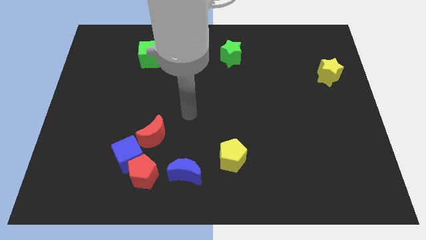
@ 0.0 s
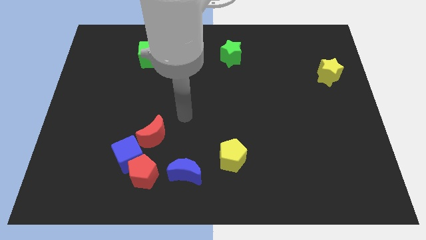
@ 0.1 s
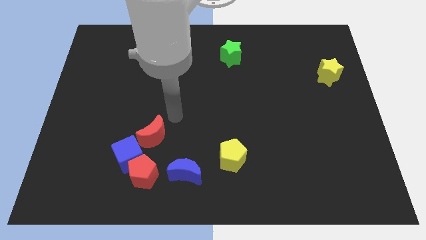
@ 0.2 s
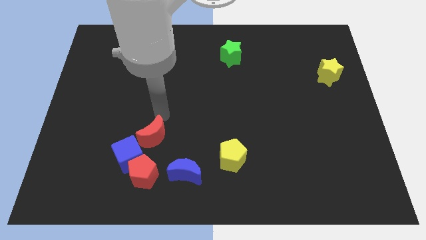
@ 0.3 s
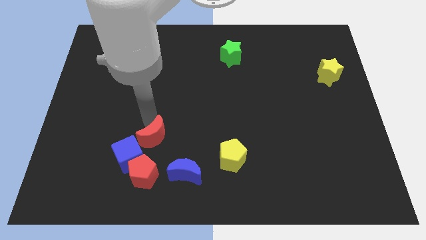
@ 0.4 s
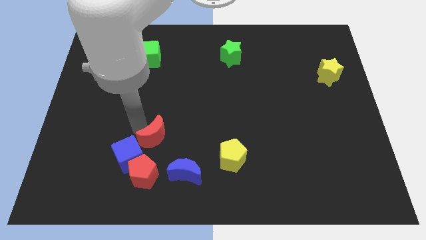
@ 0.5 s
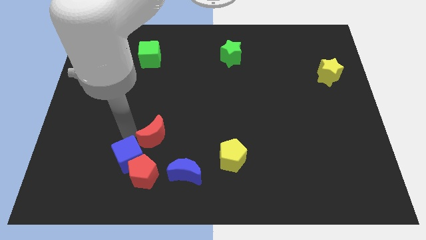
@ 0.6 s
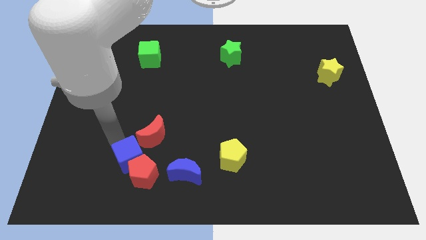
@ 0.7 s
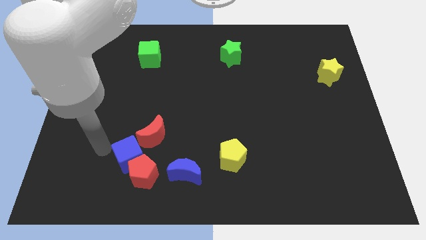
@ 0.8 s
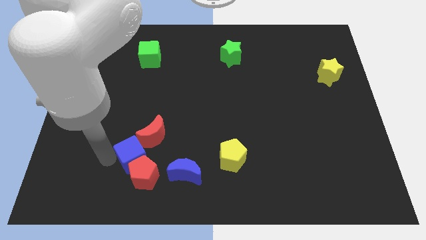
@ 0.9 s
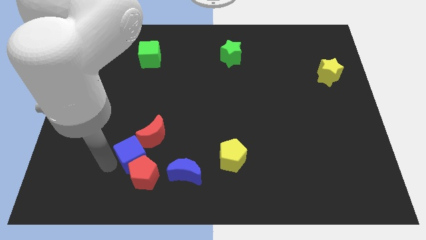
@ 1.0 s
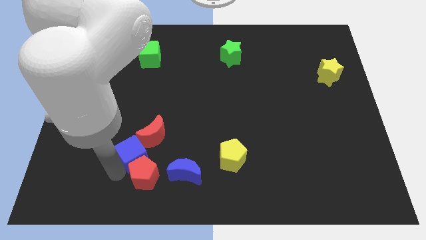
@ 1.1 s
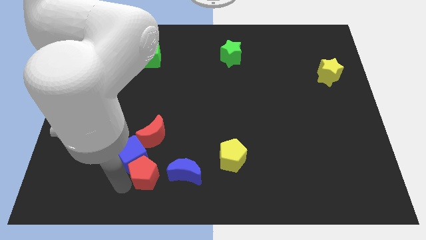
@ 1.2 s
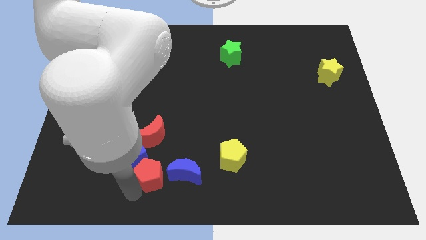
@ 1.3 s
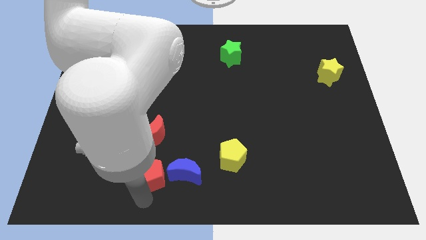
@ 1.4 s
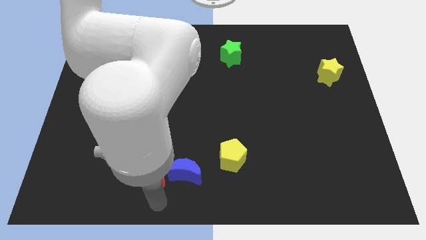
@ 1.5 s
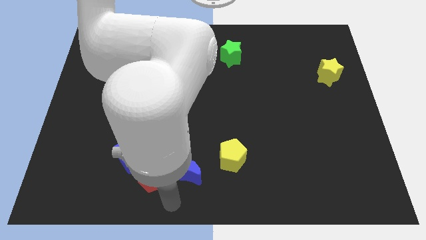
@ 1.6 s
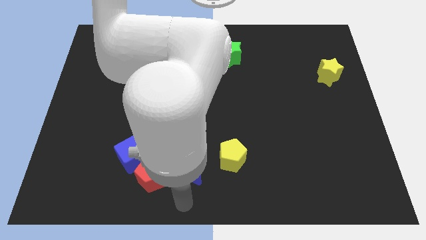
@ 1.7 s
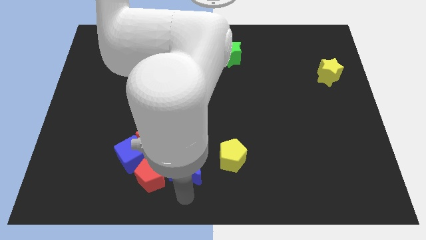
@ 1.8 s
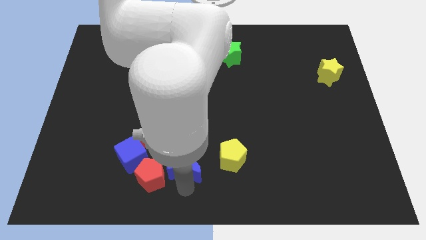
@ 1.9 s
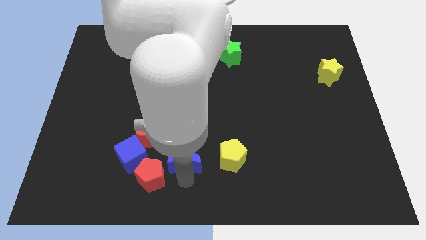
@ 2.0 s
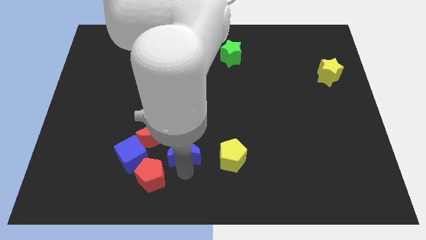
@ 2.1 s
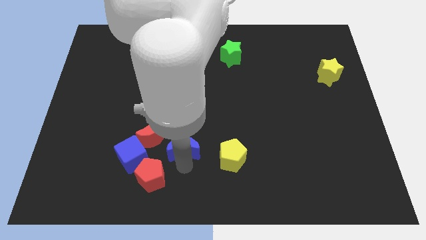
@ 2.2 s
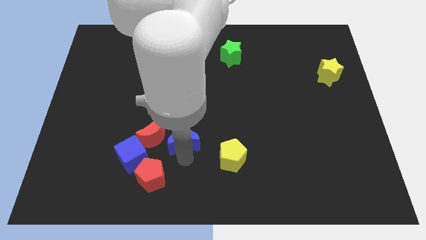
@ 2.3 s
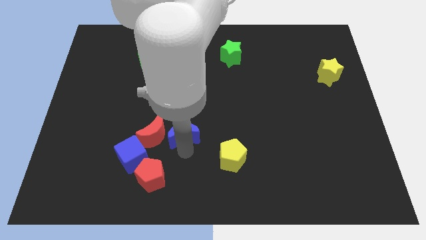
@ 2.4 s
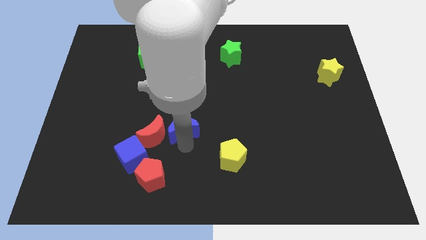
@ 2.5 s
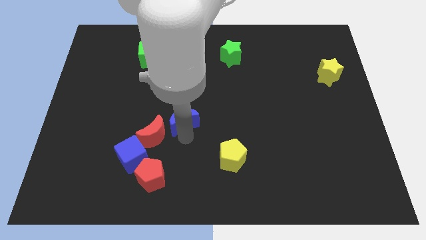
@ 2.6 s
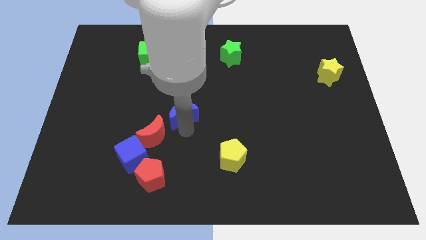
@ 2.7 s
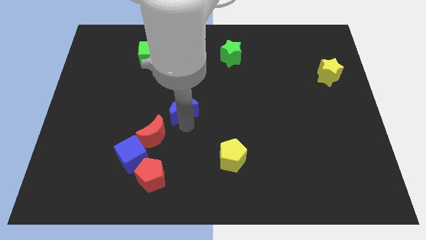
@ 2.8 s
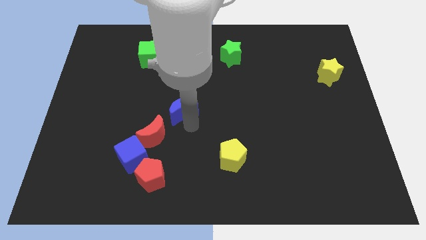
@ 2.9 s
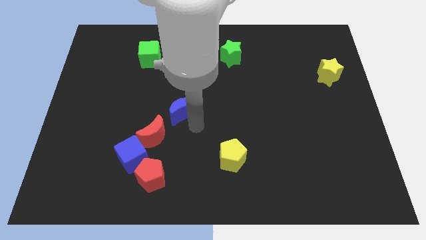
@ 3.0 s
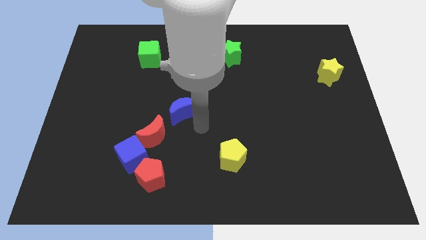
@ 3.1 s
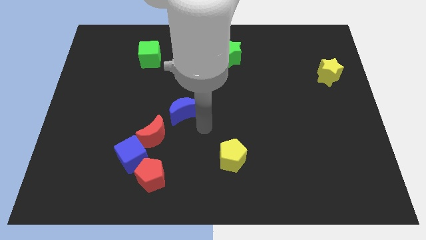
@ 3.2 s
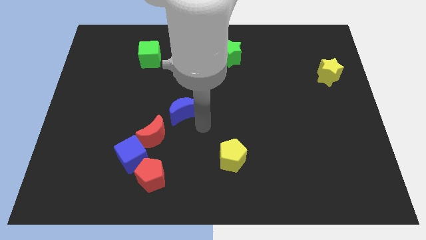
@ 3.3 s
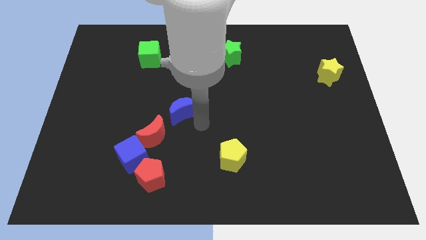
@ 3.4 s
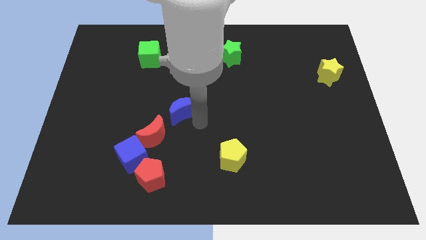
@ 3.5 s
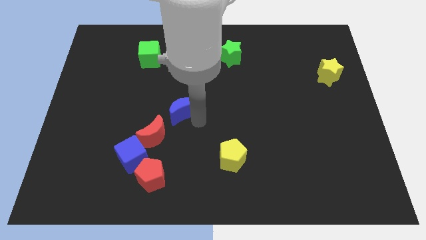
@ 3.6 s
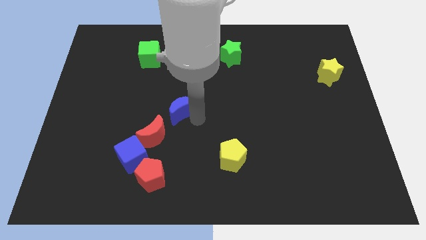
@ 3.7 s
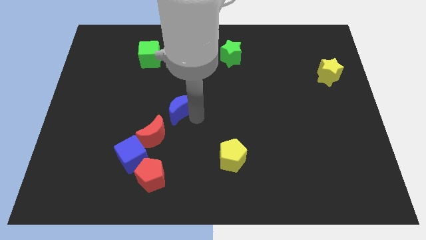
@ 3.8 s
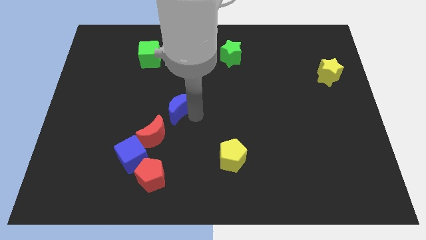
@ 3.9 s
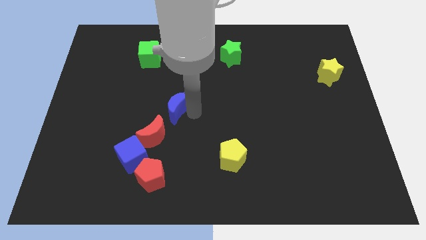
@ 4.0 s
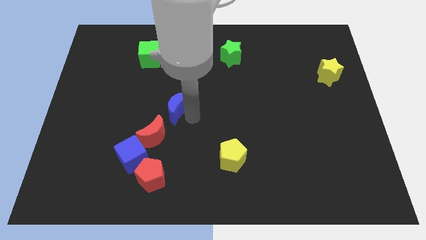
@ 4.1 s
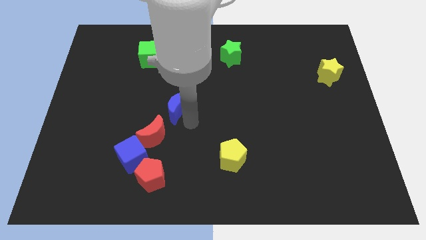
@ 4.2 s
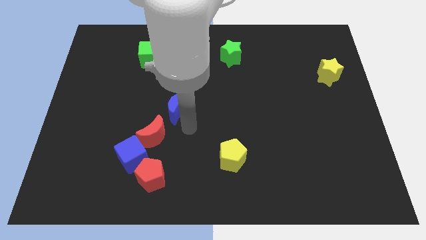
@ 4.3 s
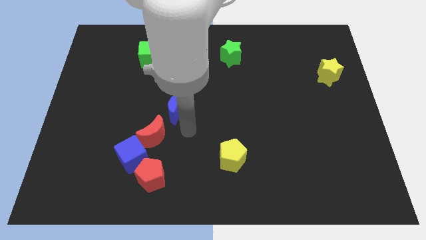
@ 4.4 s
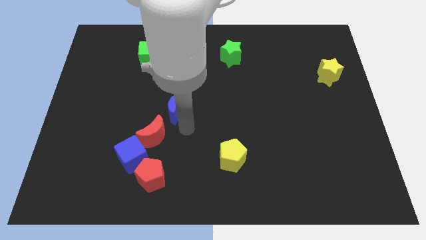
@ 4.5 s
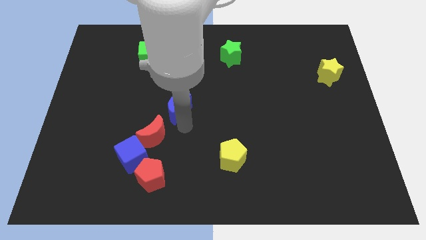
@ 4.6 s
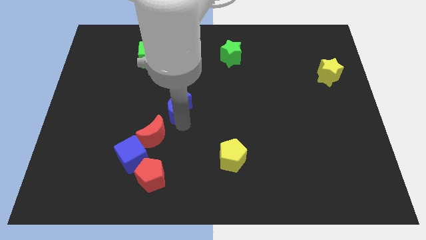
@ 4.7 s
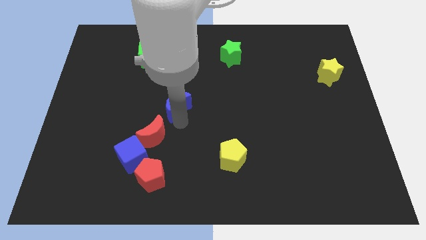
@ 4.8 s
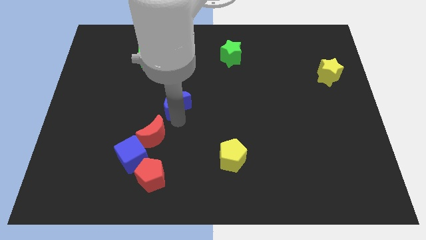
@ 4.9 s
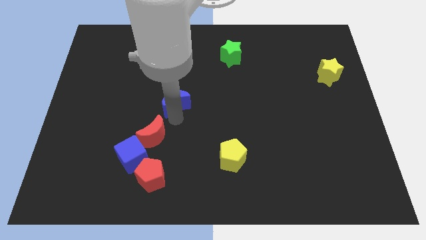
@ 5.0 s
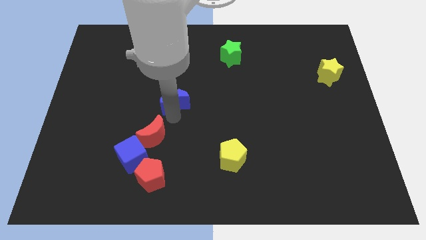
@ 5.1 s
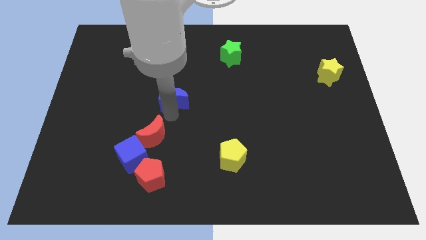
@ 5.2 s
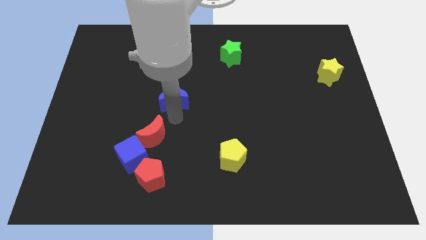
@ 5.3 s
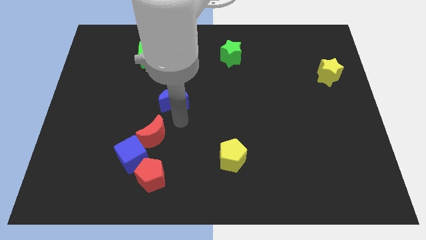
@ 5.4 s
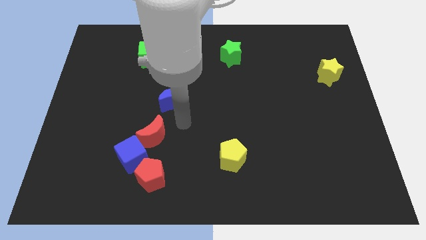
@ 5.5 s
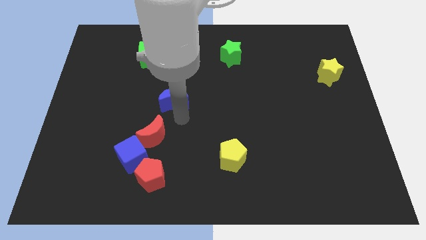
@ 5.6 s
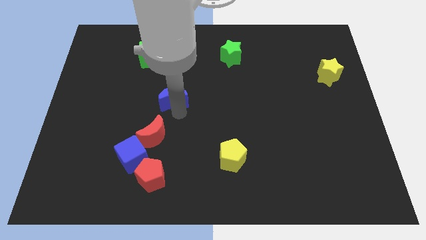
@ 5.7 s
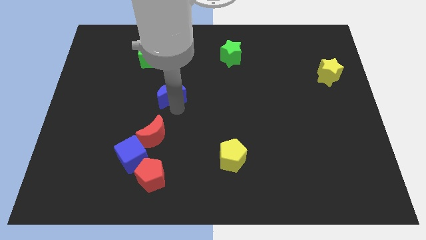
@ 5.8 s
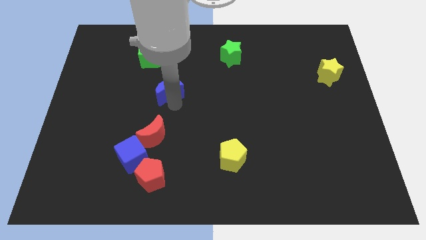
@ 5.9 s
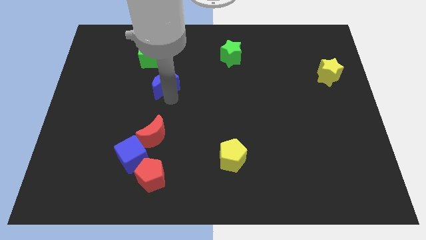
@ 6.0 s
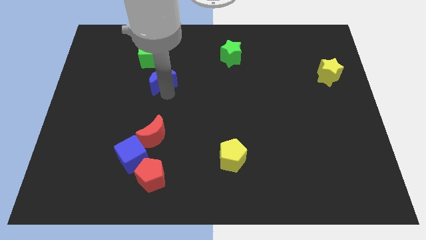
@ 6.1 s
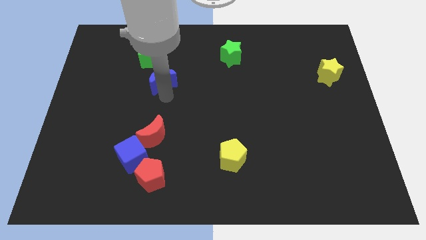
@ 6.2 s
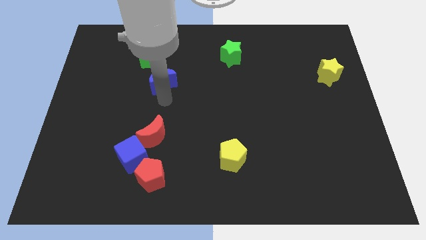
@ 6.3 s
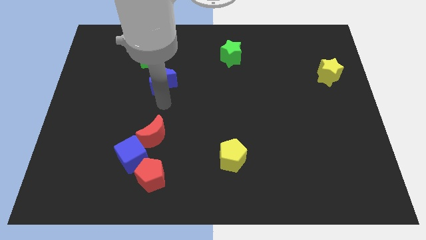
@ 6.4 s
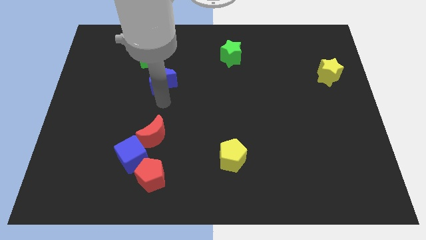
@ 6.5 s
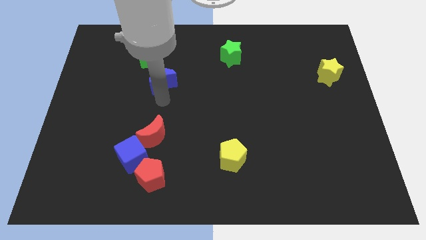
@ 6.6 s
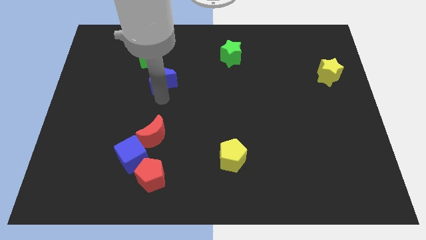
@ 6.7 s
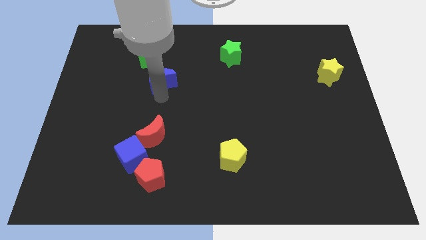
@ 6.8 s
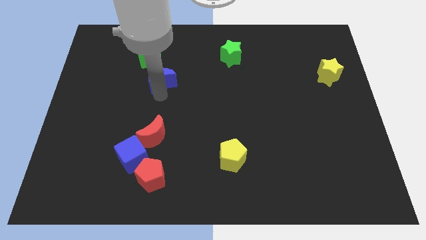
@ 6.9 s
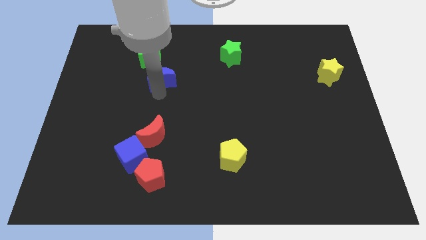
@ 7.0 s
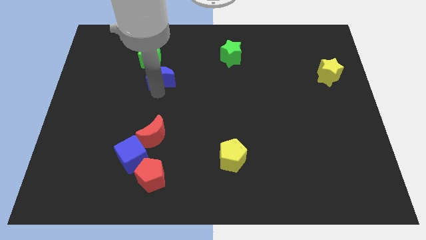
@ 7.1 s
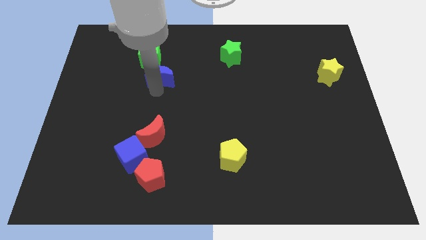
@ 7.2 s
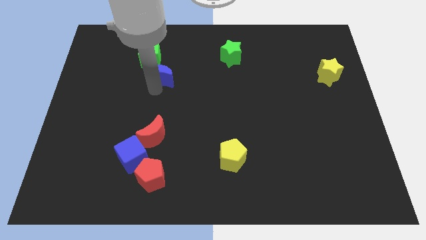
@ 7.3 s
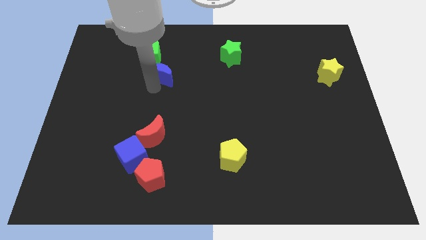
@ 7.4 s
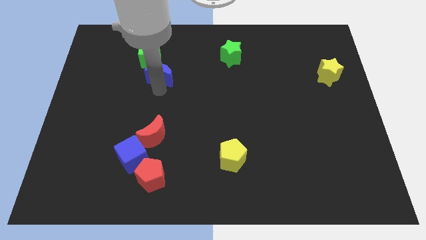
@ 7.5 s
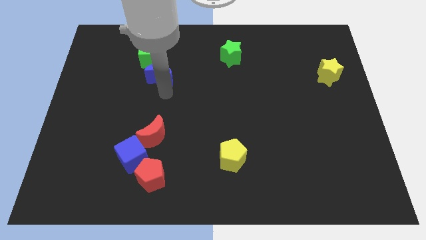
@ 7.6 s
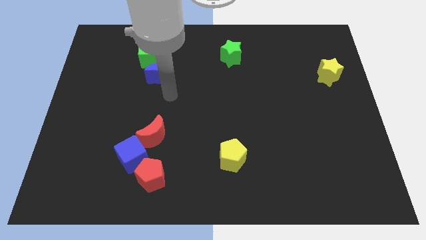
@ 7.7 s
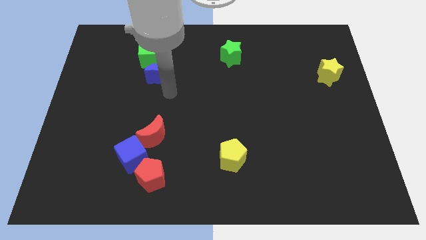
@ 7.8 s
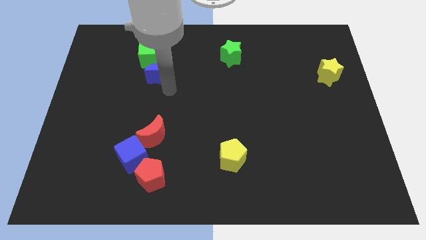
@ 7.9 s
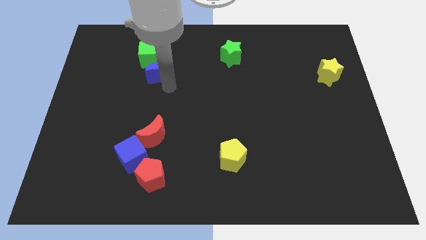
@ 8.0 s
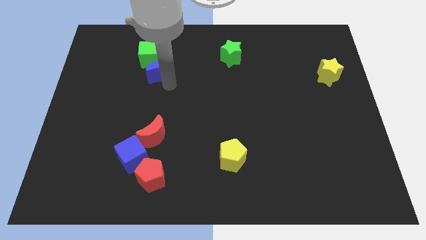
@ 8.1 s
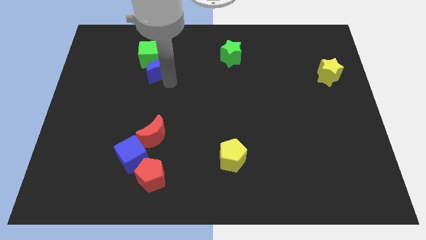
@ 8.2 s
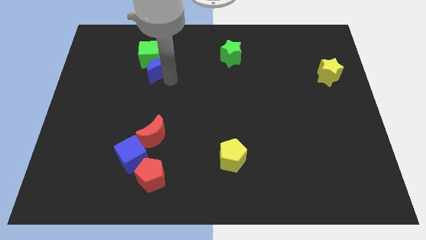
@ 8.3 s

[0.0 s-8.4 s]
move the blue moon to the green cube
